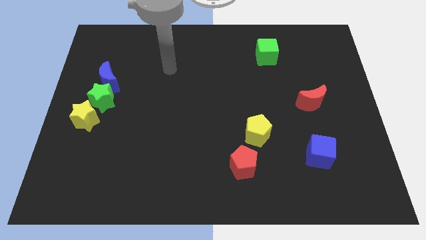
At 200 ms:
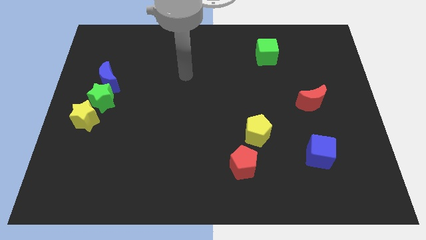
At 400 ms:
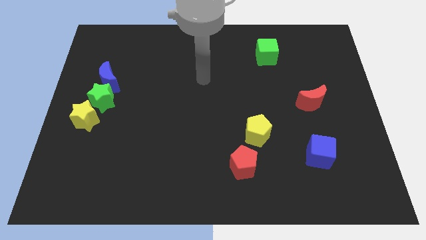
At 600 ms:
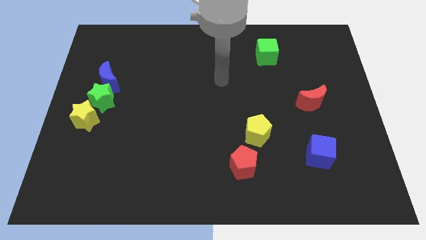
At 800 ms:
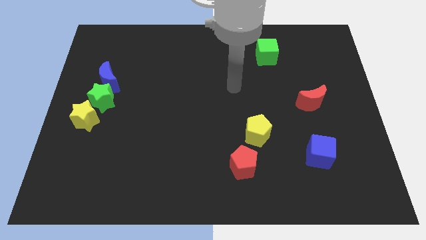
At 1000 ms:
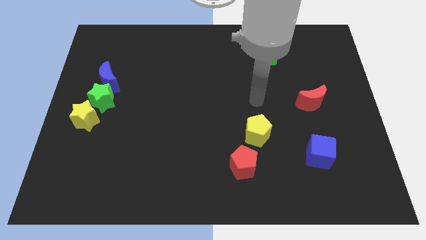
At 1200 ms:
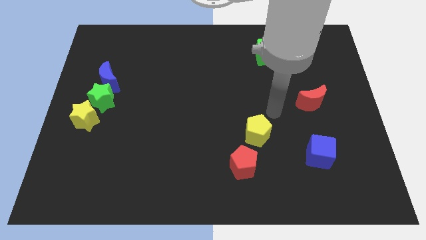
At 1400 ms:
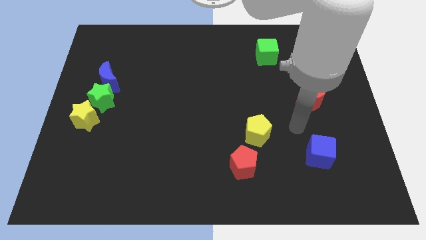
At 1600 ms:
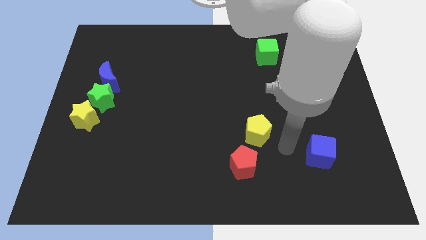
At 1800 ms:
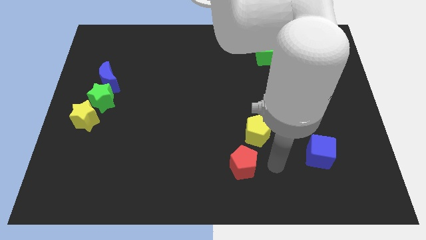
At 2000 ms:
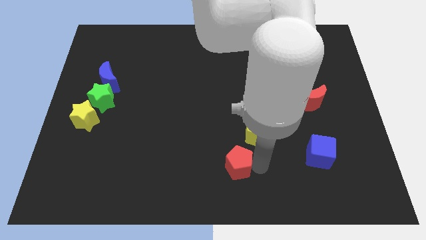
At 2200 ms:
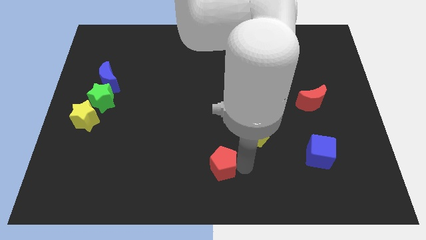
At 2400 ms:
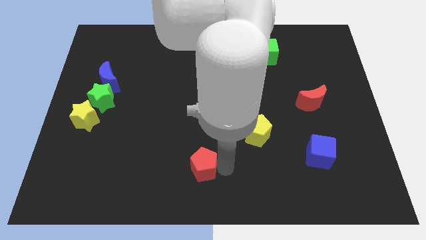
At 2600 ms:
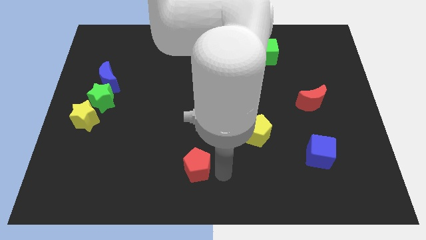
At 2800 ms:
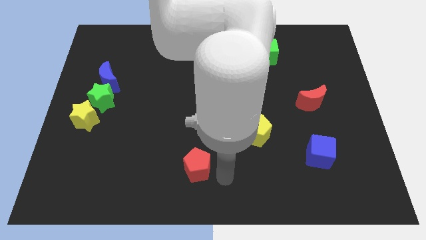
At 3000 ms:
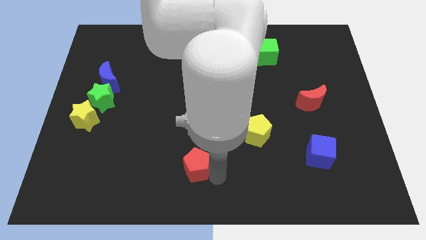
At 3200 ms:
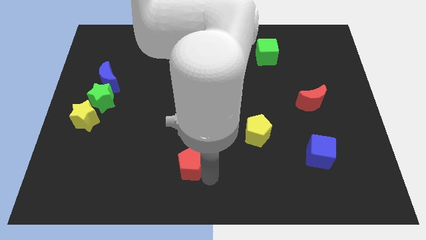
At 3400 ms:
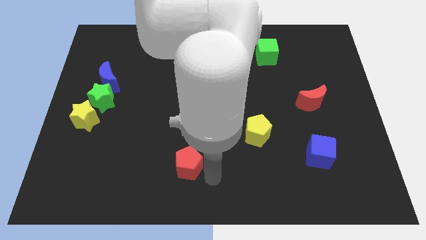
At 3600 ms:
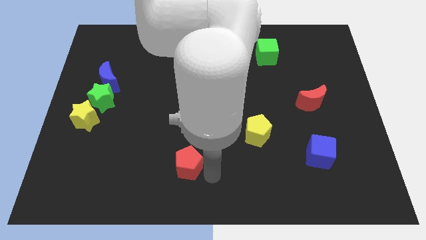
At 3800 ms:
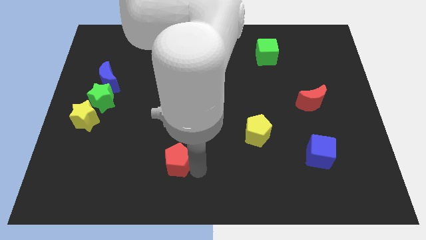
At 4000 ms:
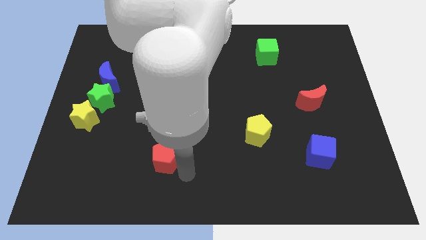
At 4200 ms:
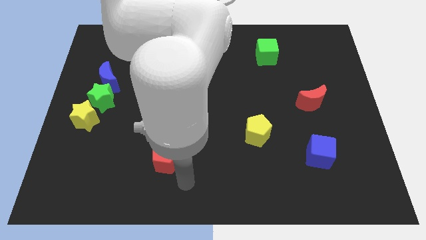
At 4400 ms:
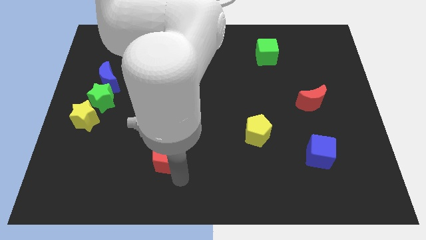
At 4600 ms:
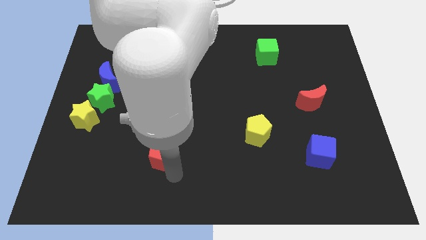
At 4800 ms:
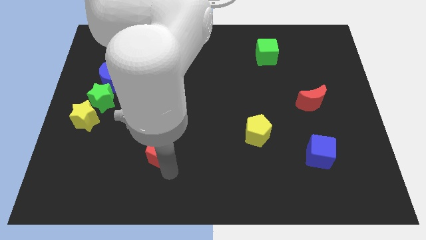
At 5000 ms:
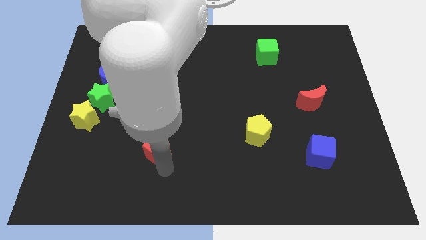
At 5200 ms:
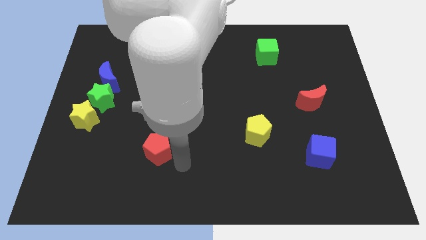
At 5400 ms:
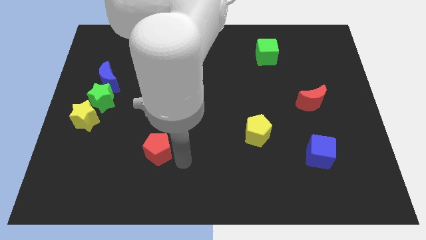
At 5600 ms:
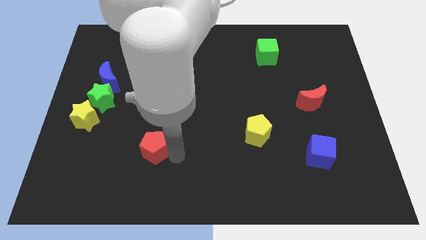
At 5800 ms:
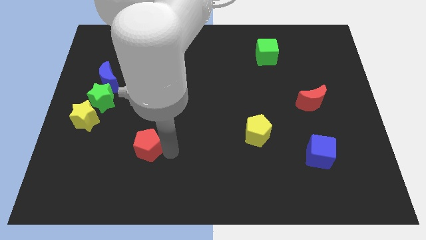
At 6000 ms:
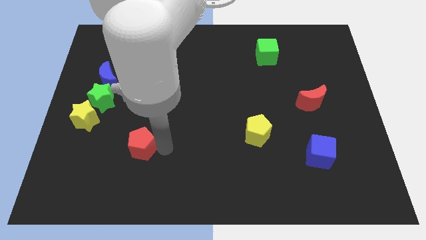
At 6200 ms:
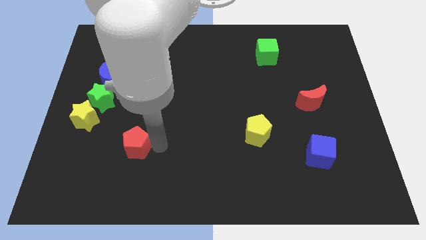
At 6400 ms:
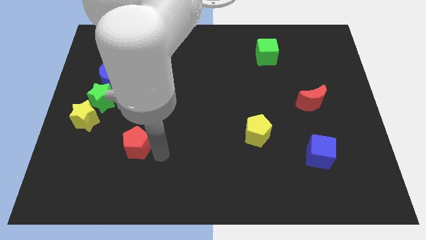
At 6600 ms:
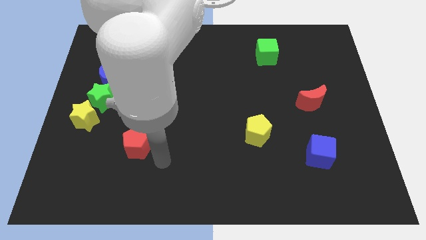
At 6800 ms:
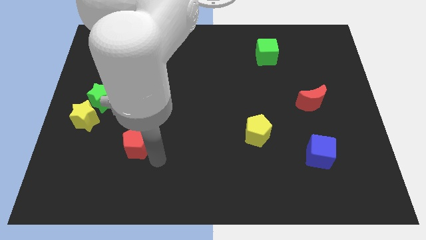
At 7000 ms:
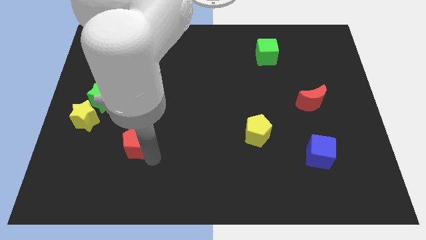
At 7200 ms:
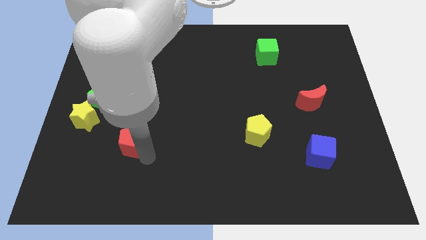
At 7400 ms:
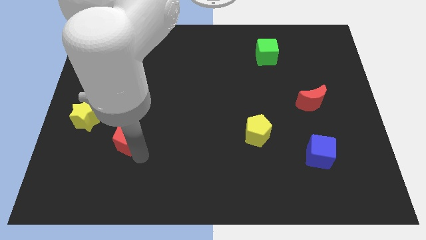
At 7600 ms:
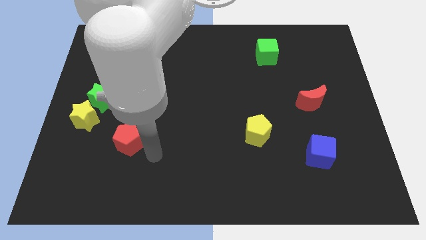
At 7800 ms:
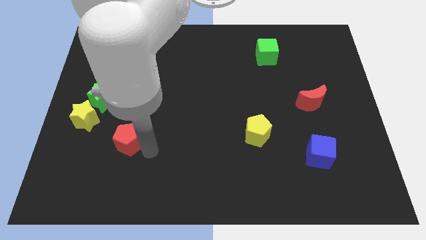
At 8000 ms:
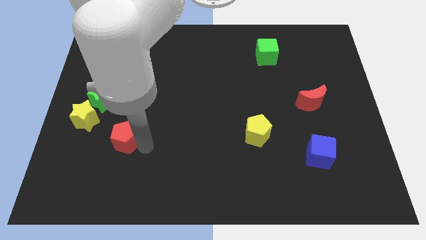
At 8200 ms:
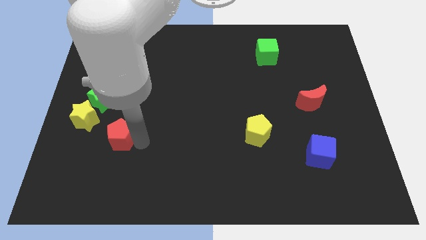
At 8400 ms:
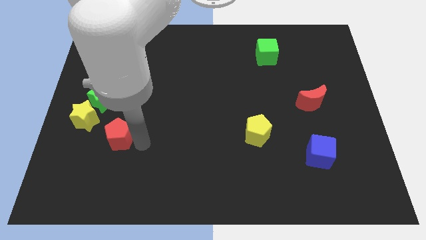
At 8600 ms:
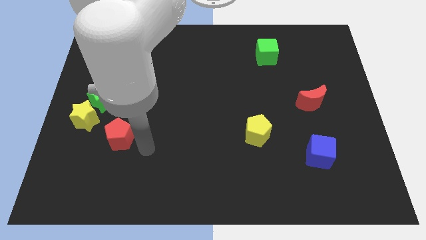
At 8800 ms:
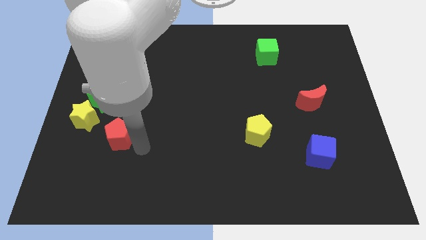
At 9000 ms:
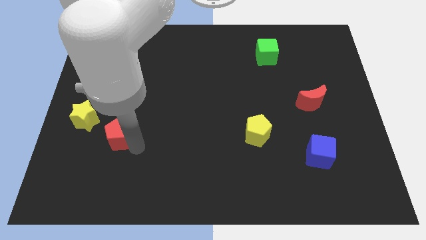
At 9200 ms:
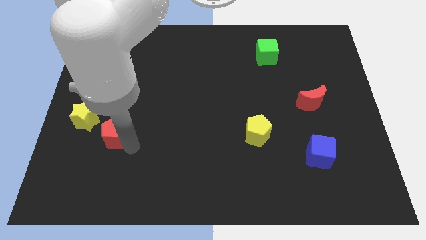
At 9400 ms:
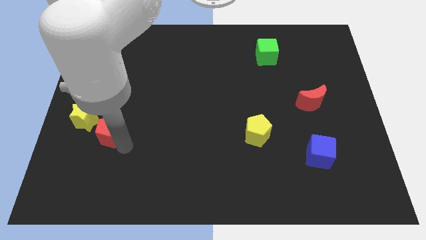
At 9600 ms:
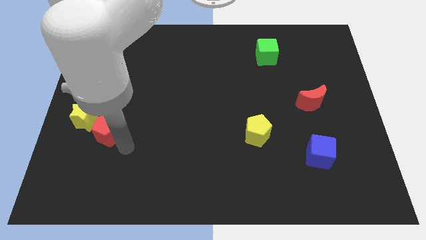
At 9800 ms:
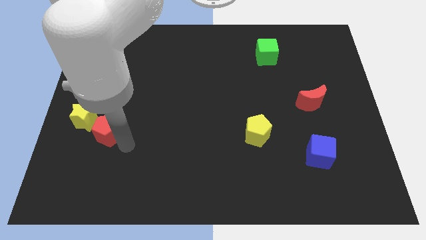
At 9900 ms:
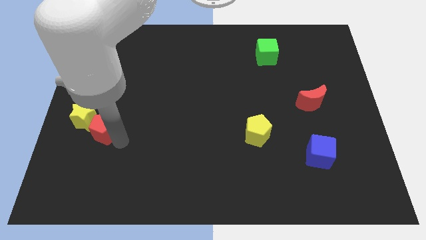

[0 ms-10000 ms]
slide the red pentagon next to the yellow star

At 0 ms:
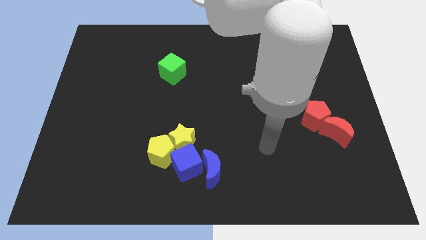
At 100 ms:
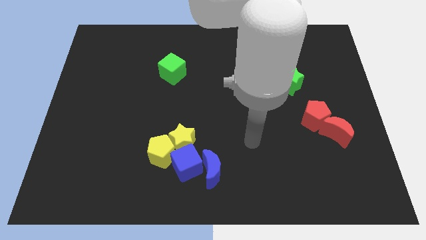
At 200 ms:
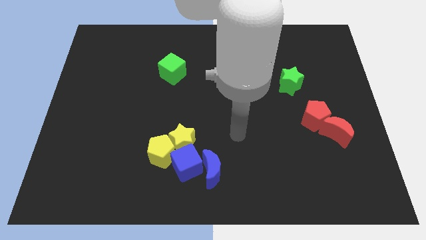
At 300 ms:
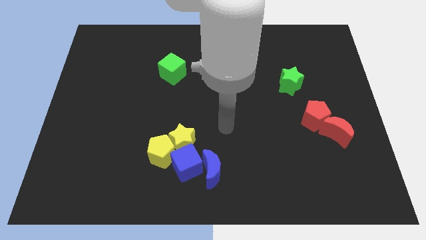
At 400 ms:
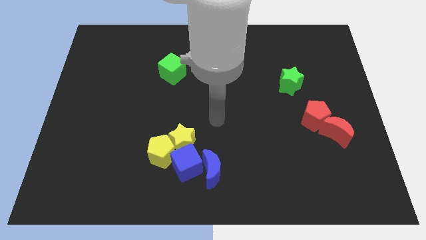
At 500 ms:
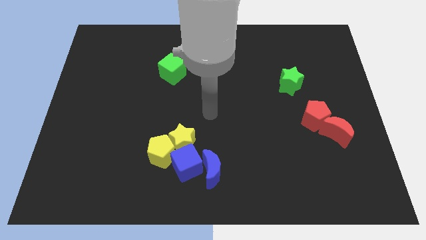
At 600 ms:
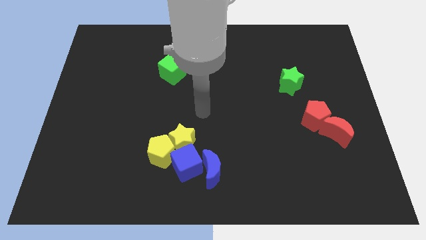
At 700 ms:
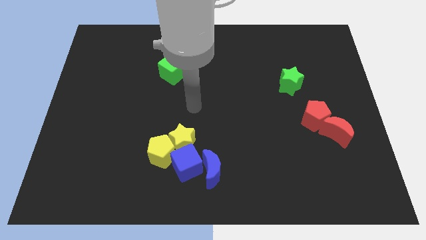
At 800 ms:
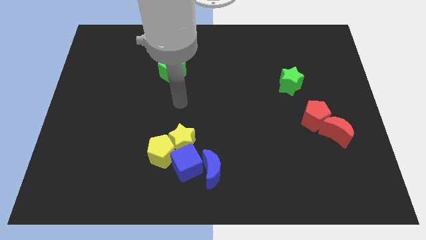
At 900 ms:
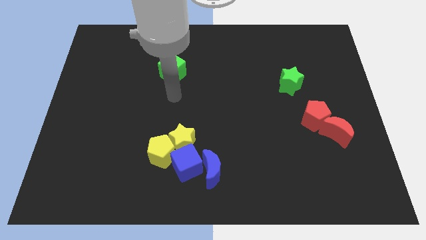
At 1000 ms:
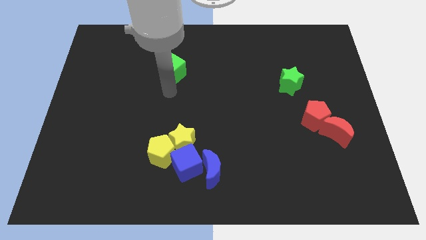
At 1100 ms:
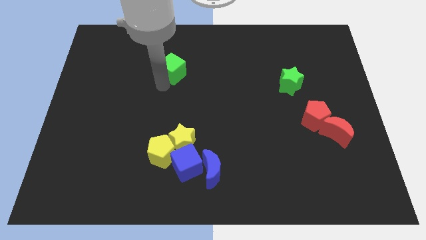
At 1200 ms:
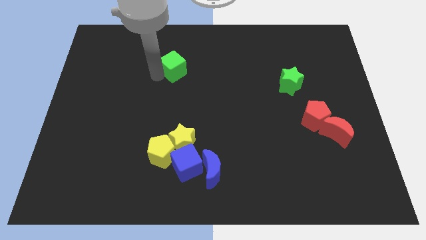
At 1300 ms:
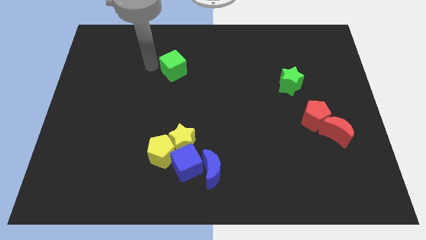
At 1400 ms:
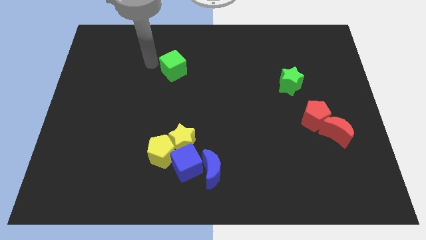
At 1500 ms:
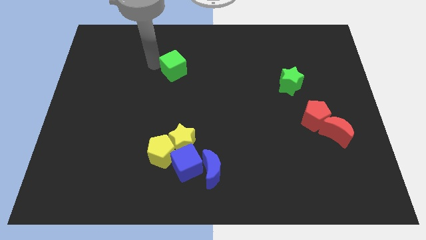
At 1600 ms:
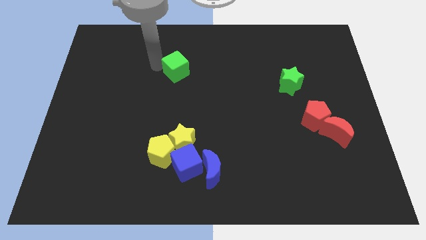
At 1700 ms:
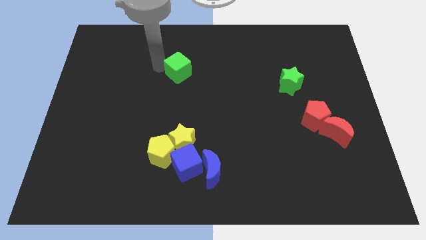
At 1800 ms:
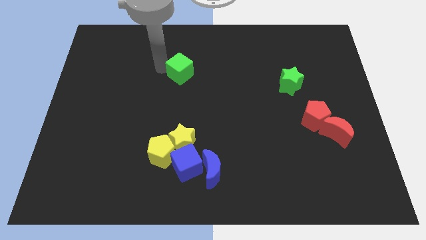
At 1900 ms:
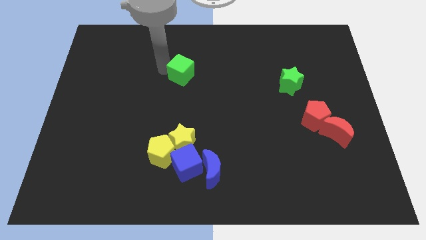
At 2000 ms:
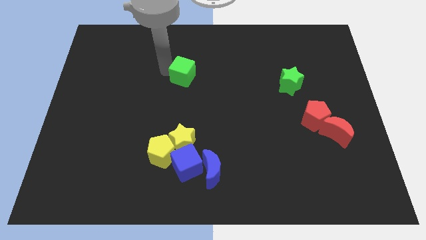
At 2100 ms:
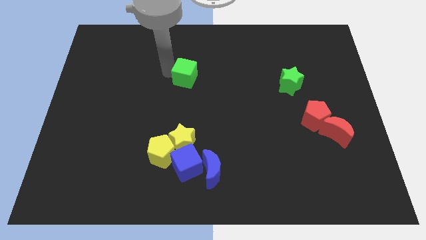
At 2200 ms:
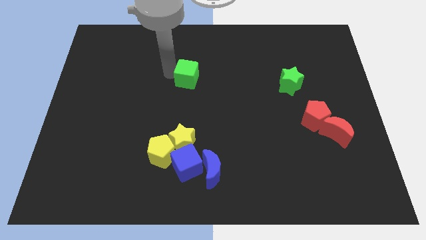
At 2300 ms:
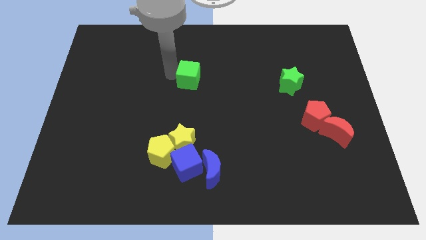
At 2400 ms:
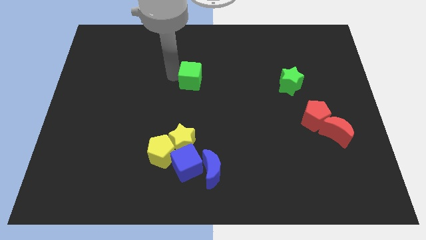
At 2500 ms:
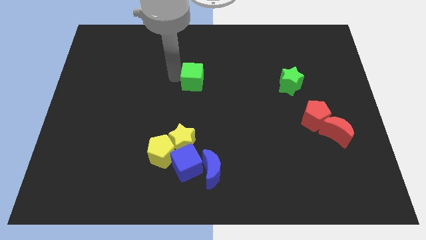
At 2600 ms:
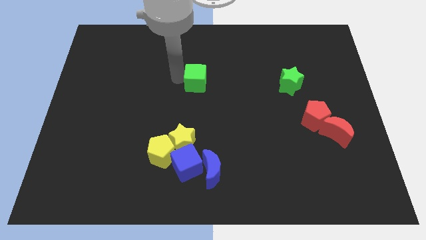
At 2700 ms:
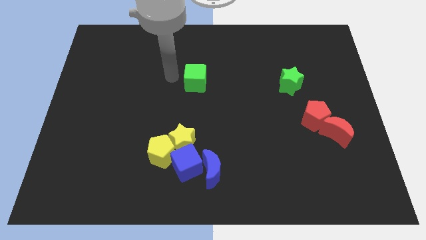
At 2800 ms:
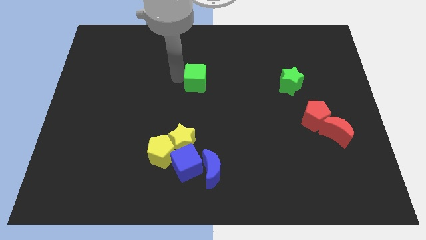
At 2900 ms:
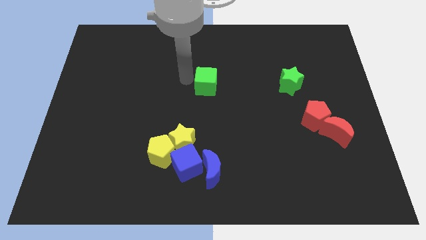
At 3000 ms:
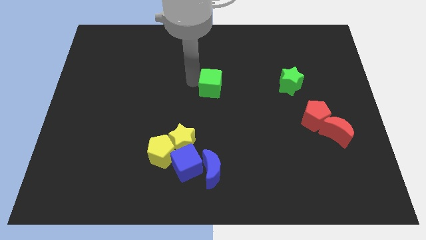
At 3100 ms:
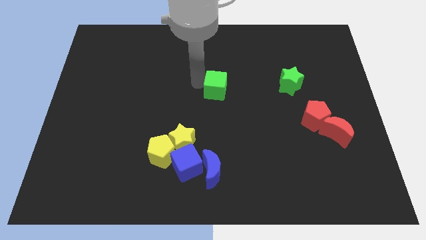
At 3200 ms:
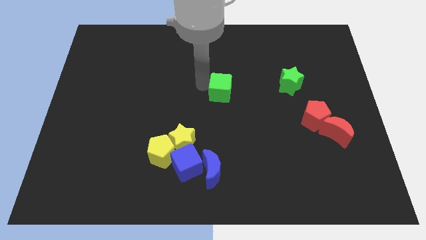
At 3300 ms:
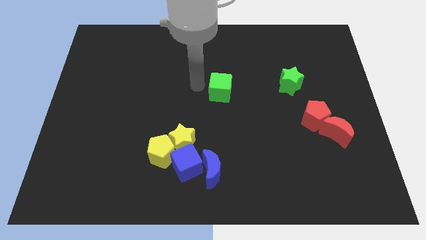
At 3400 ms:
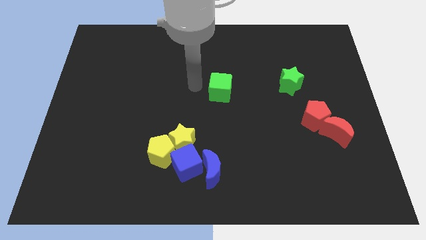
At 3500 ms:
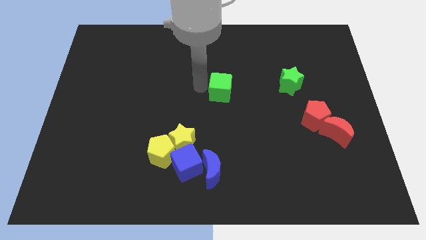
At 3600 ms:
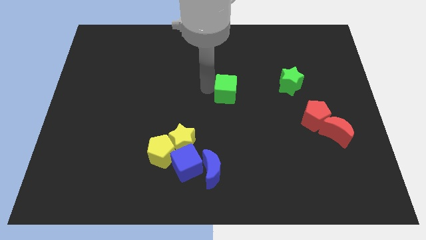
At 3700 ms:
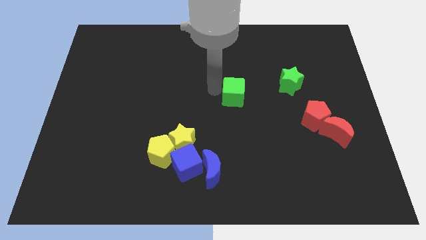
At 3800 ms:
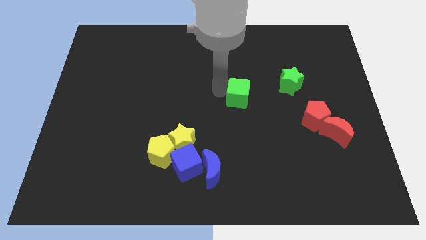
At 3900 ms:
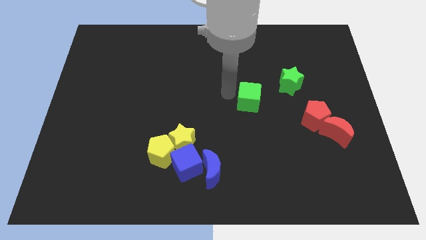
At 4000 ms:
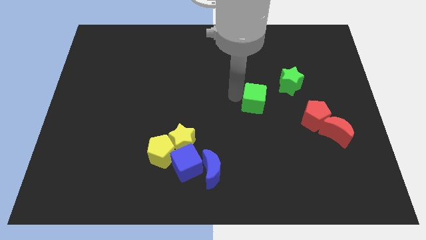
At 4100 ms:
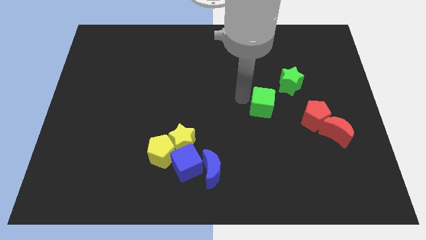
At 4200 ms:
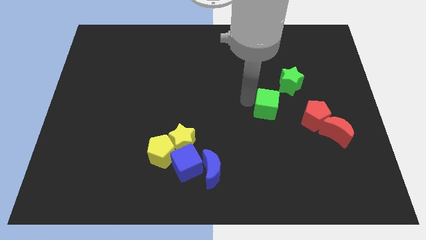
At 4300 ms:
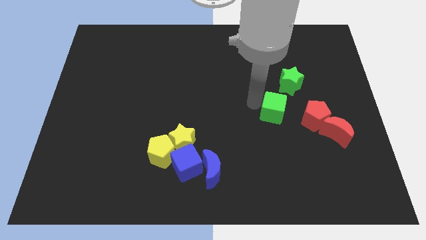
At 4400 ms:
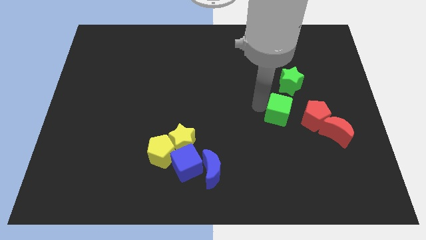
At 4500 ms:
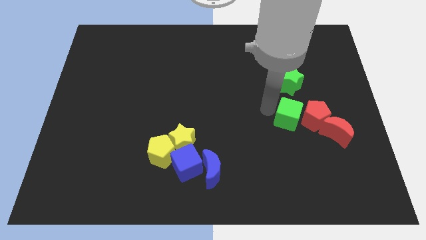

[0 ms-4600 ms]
push the green cube close to the red pentagon
